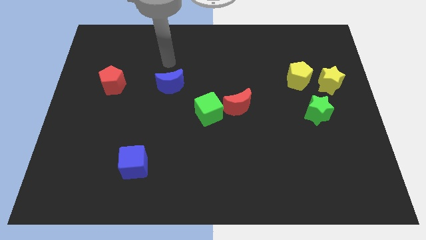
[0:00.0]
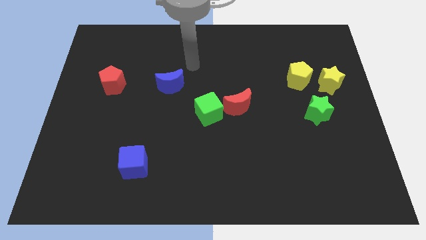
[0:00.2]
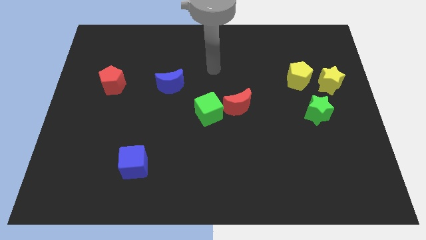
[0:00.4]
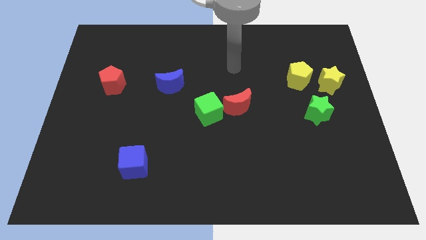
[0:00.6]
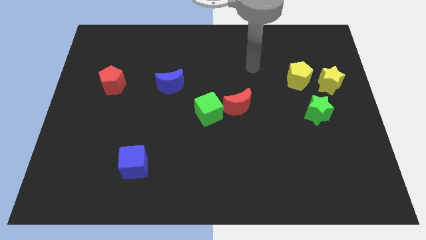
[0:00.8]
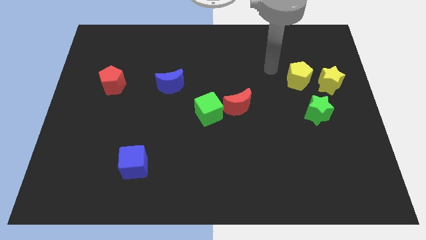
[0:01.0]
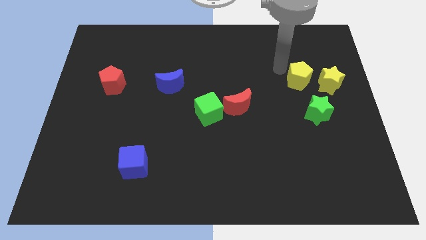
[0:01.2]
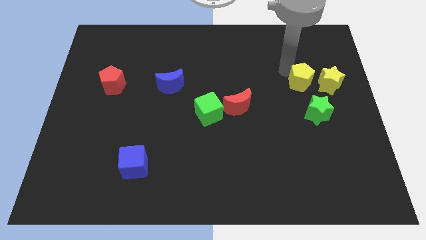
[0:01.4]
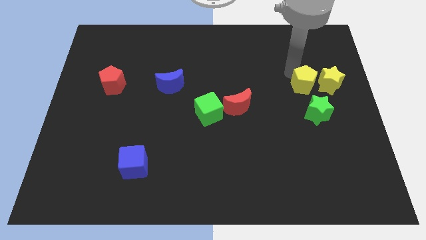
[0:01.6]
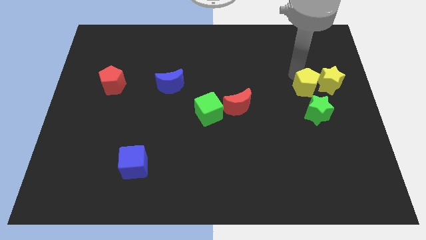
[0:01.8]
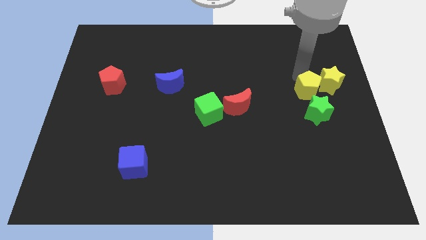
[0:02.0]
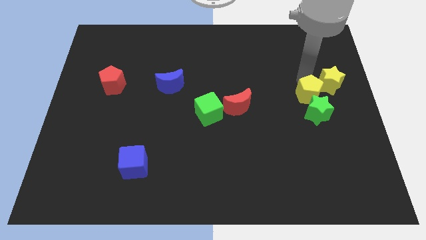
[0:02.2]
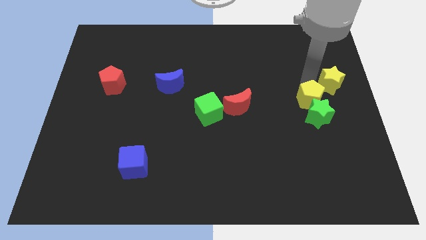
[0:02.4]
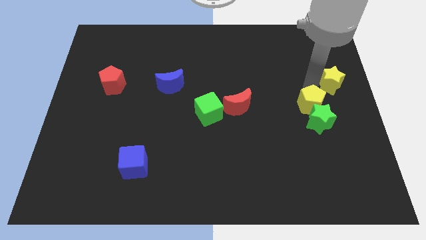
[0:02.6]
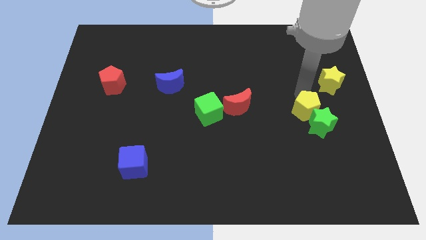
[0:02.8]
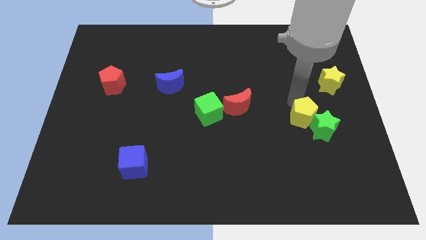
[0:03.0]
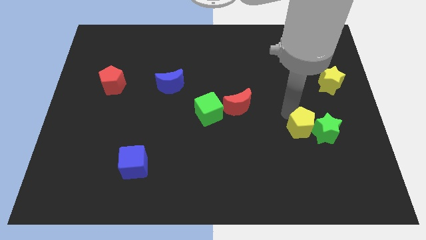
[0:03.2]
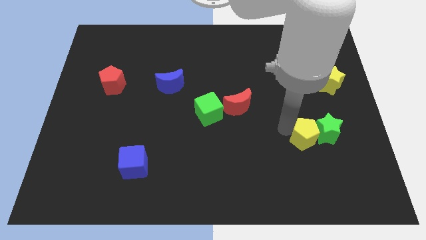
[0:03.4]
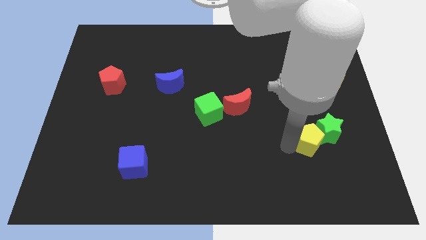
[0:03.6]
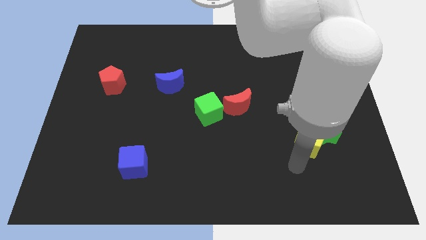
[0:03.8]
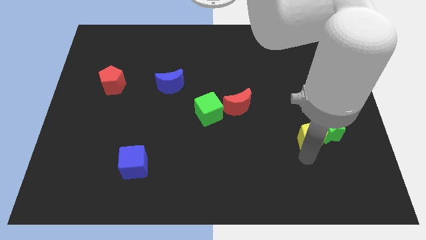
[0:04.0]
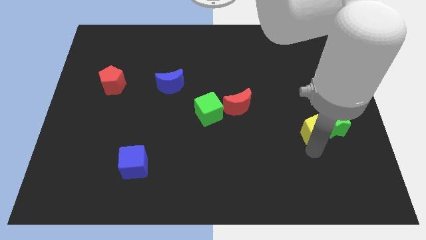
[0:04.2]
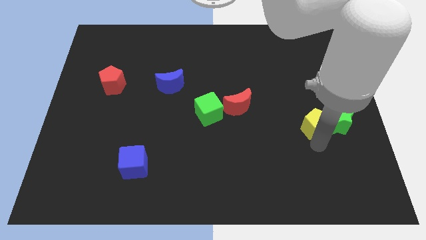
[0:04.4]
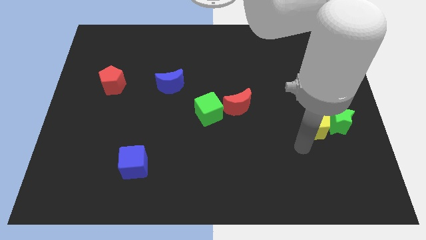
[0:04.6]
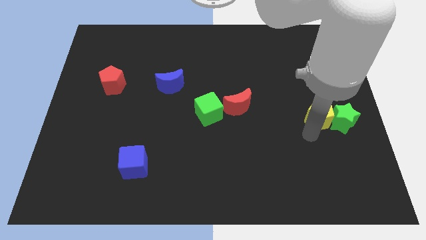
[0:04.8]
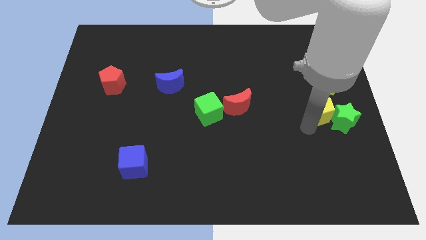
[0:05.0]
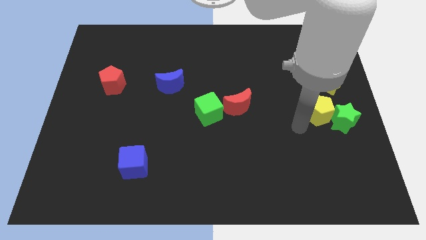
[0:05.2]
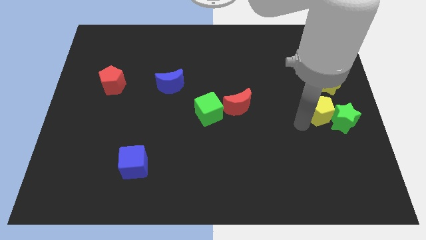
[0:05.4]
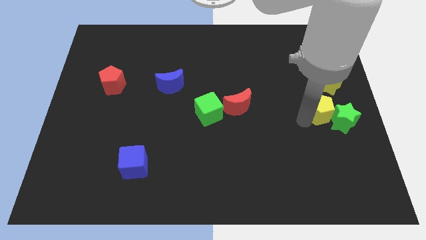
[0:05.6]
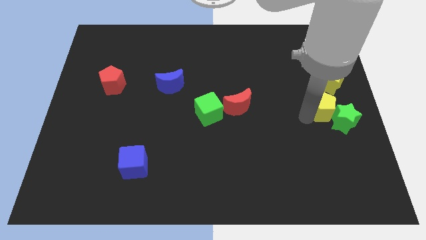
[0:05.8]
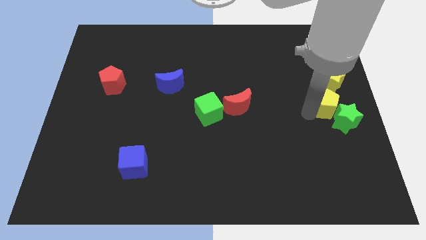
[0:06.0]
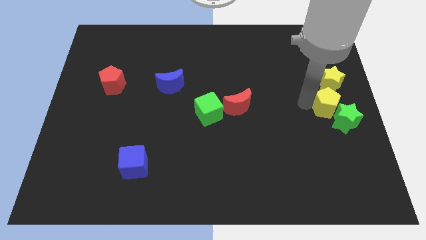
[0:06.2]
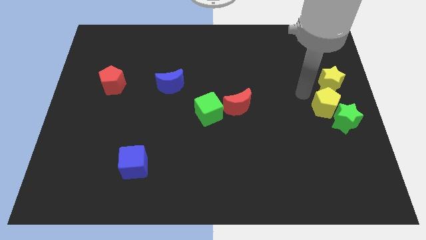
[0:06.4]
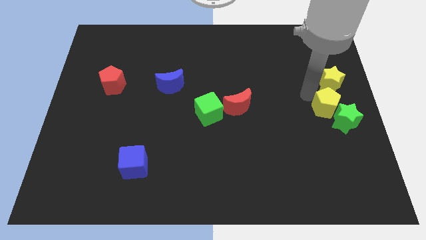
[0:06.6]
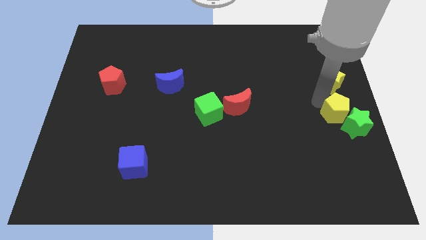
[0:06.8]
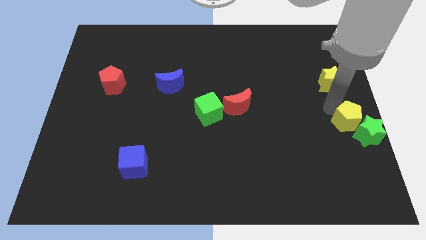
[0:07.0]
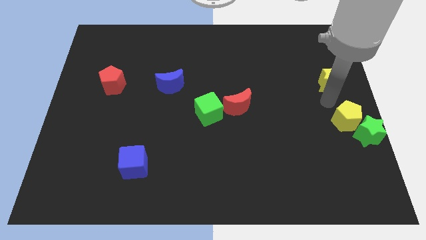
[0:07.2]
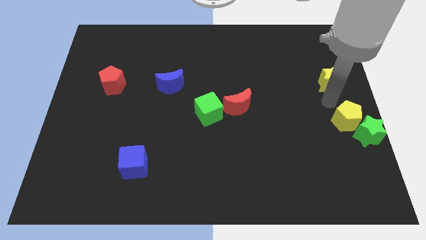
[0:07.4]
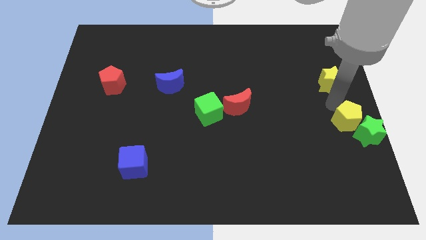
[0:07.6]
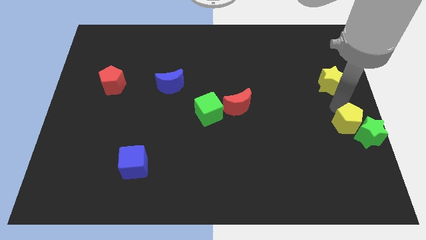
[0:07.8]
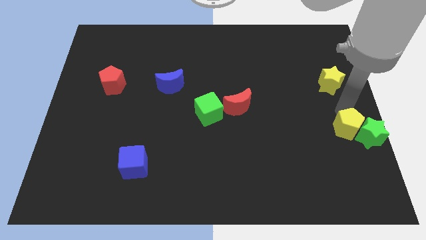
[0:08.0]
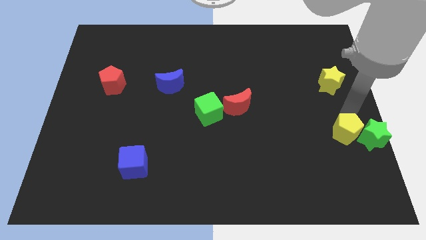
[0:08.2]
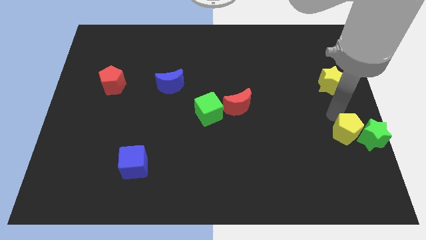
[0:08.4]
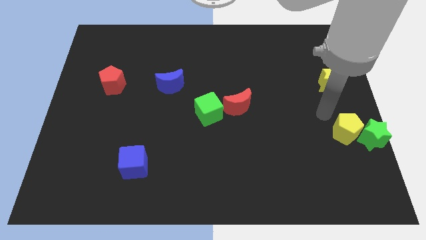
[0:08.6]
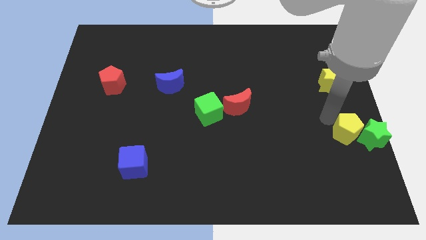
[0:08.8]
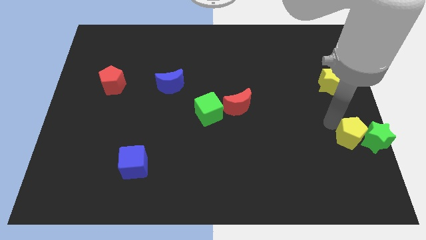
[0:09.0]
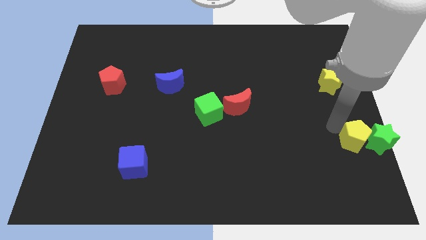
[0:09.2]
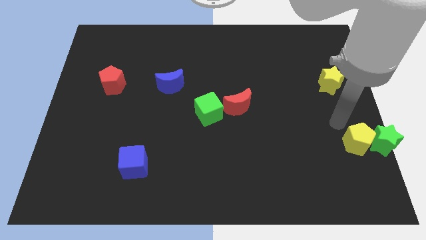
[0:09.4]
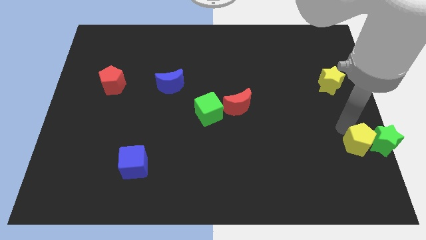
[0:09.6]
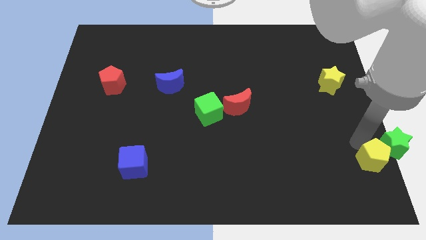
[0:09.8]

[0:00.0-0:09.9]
slide the yellow pentagon to the bottom right corner

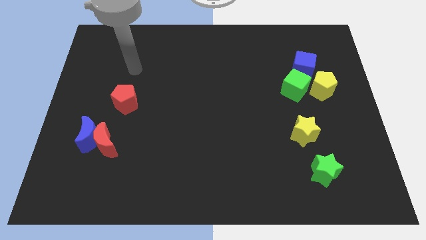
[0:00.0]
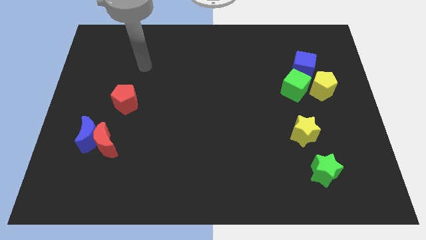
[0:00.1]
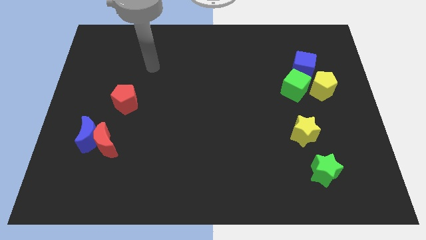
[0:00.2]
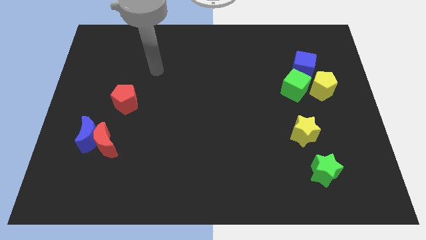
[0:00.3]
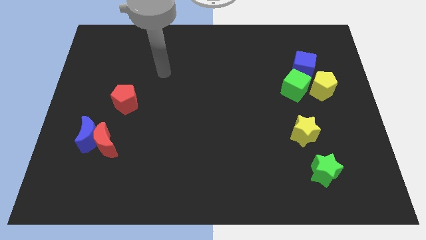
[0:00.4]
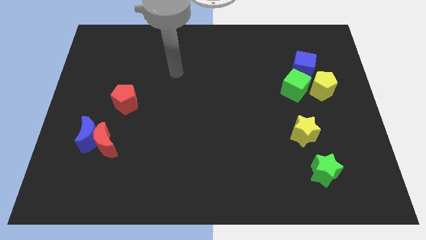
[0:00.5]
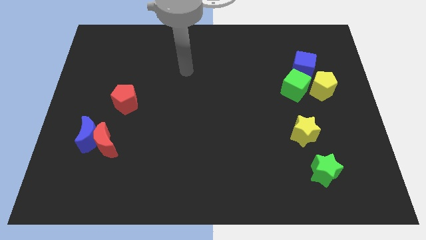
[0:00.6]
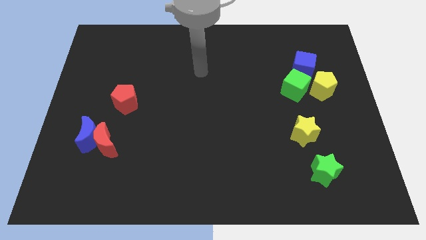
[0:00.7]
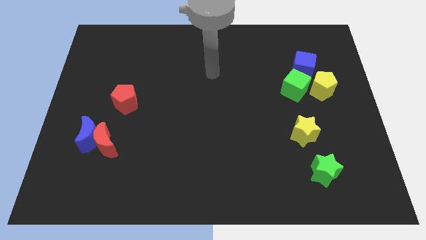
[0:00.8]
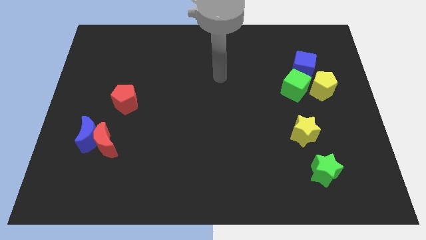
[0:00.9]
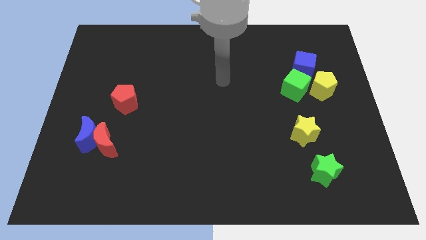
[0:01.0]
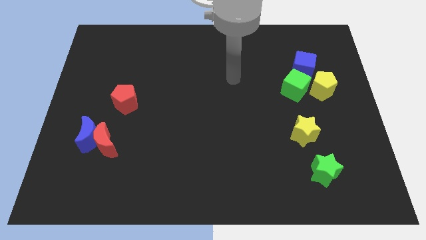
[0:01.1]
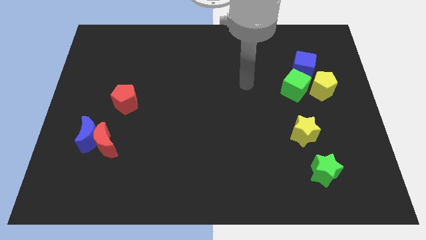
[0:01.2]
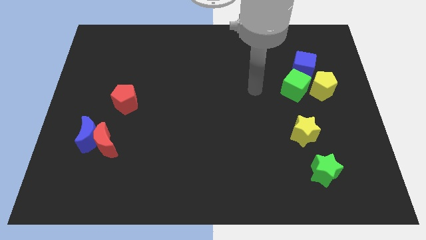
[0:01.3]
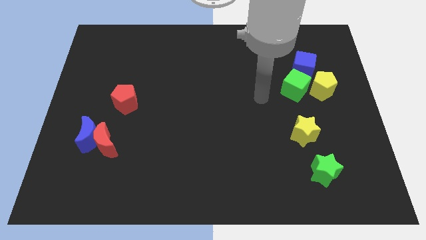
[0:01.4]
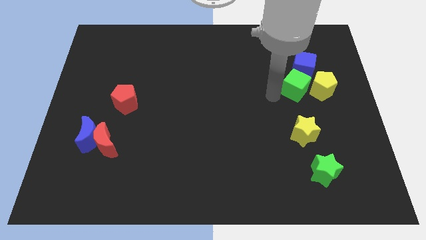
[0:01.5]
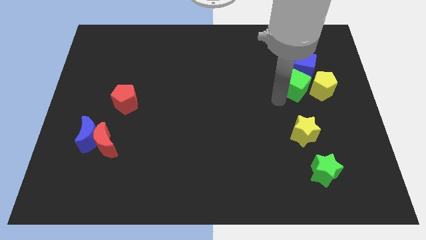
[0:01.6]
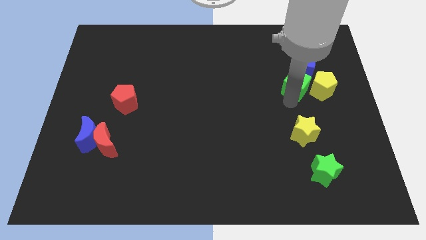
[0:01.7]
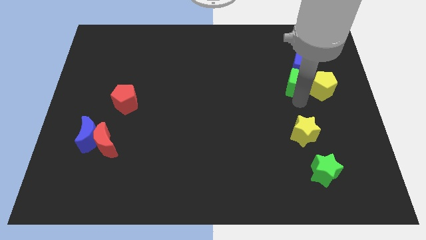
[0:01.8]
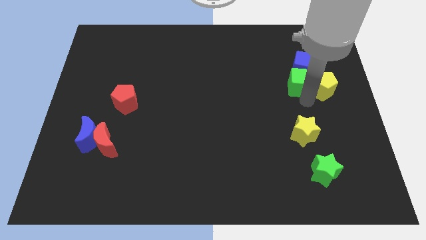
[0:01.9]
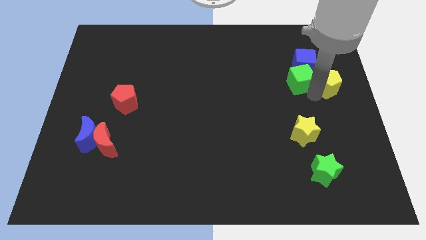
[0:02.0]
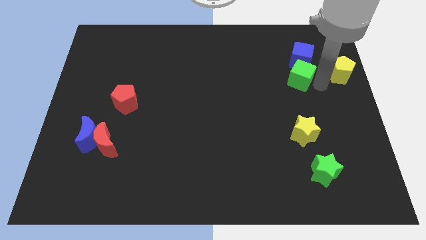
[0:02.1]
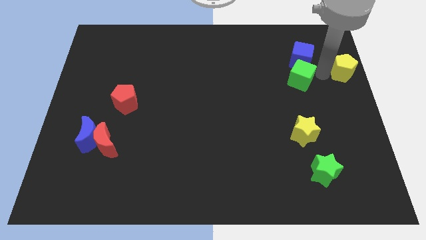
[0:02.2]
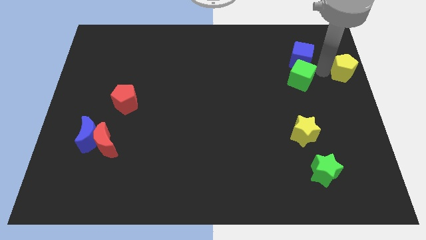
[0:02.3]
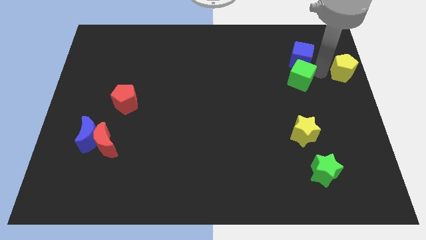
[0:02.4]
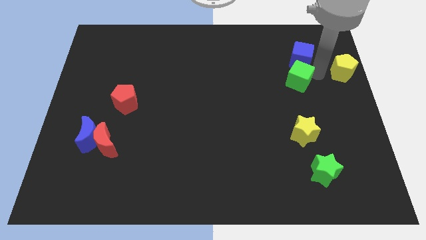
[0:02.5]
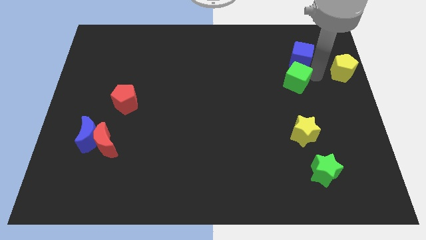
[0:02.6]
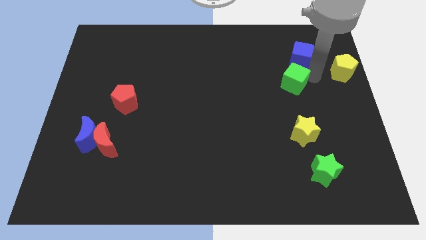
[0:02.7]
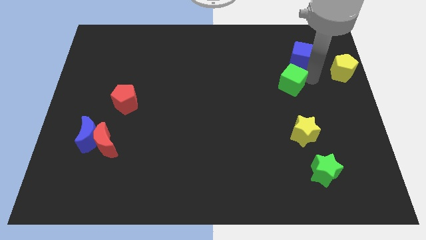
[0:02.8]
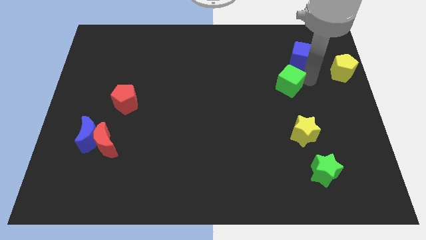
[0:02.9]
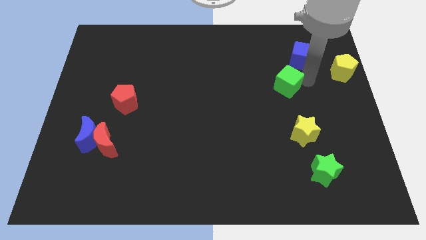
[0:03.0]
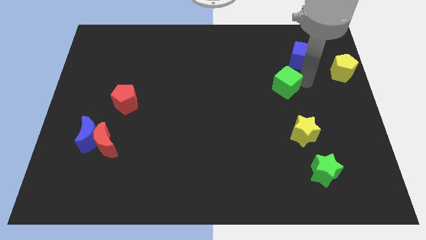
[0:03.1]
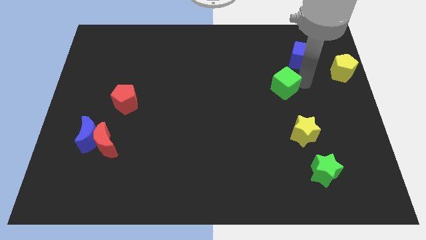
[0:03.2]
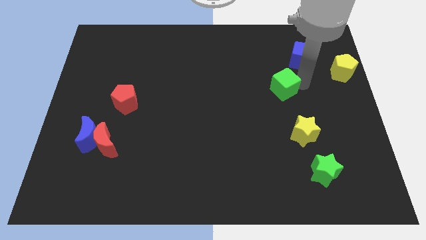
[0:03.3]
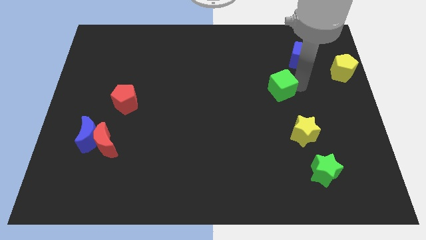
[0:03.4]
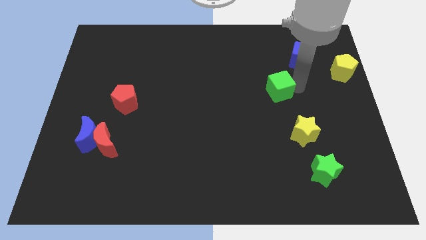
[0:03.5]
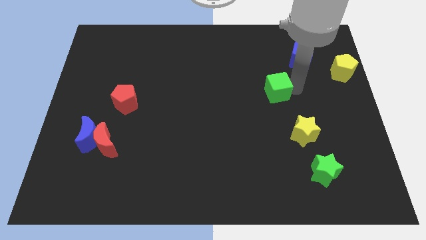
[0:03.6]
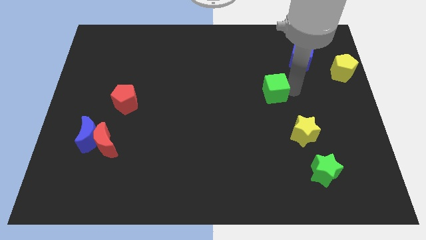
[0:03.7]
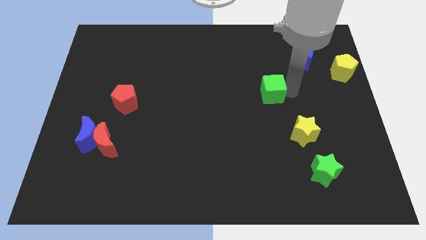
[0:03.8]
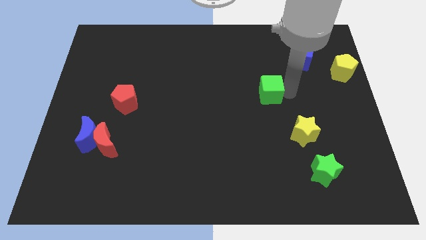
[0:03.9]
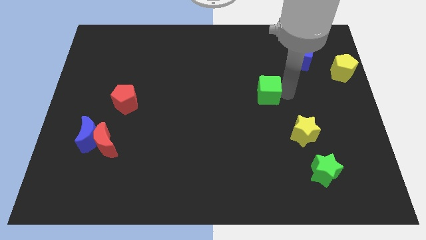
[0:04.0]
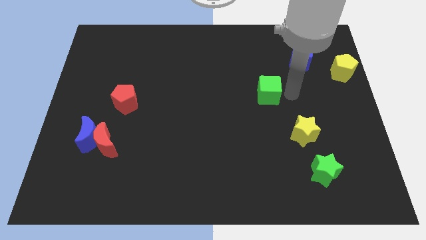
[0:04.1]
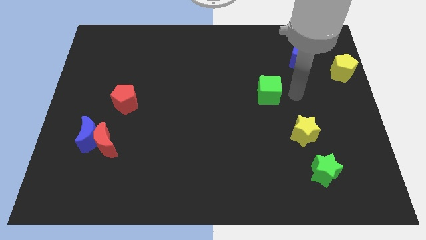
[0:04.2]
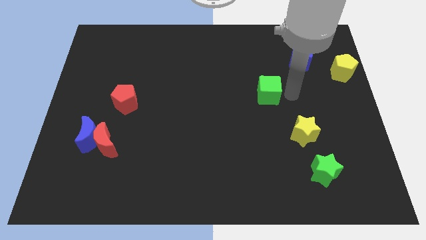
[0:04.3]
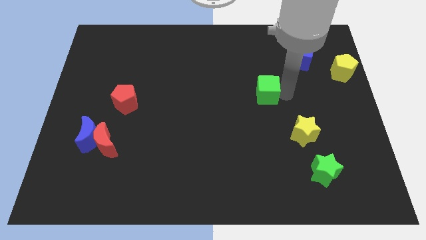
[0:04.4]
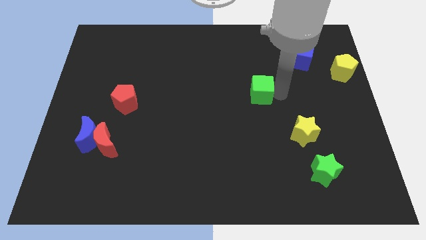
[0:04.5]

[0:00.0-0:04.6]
put the green cube to the middle
